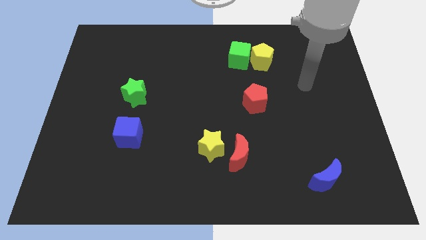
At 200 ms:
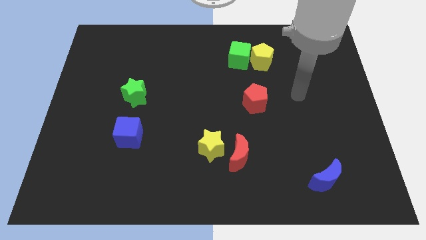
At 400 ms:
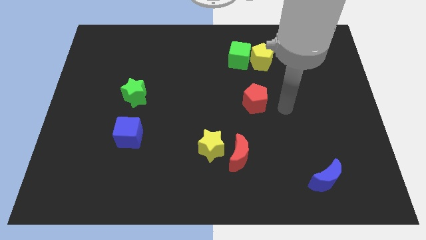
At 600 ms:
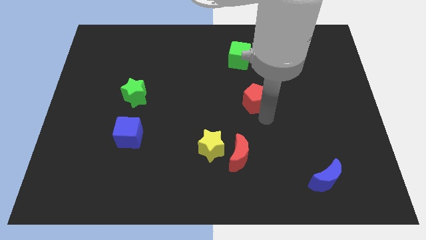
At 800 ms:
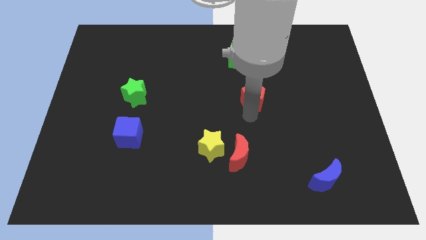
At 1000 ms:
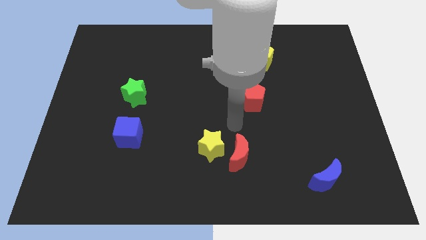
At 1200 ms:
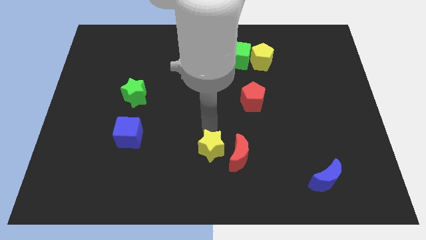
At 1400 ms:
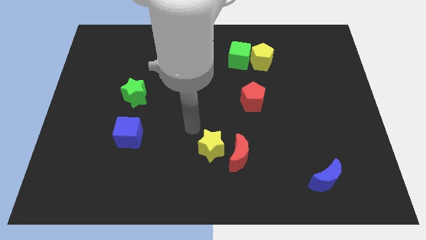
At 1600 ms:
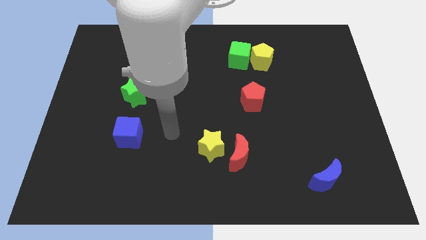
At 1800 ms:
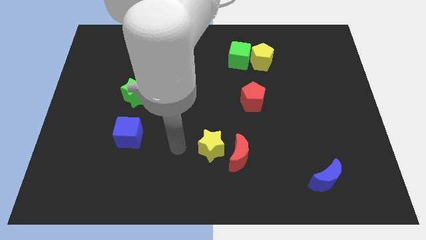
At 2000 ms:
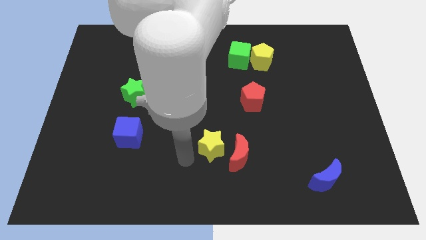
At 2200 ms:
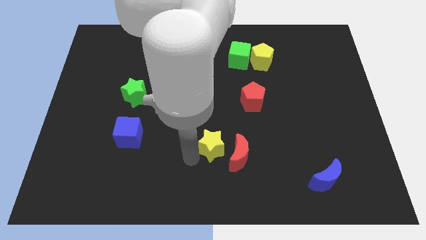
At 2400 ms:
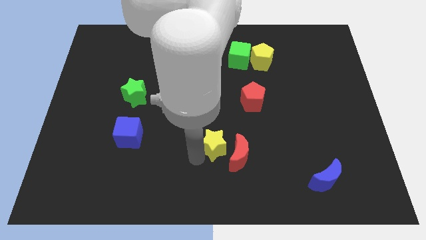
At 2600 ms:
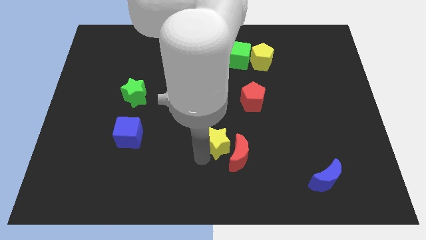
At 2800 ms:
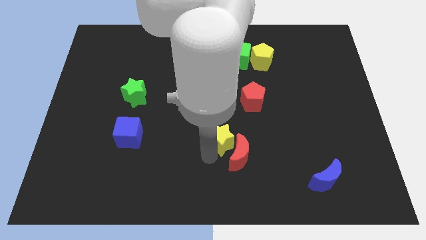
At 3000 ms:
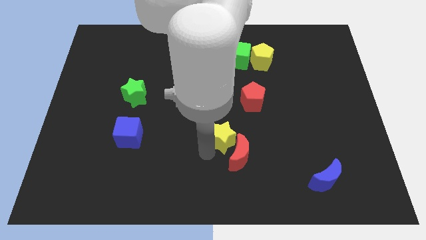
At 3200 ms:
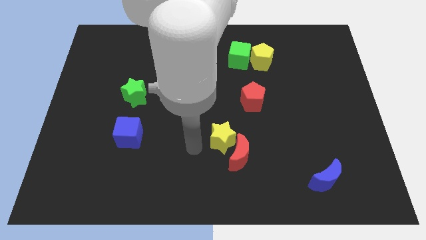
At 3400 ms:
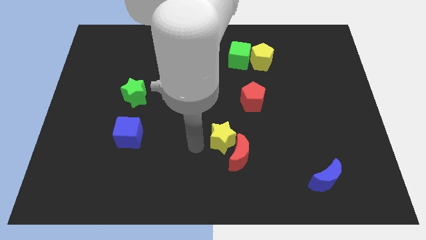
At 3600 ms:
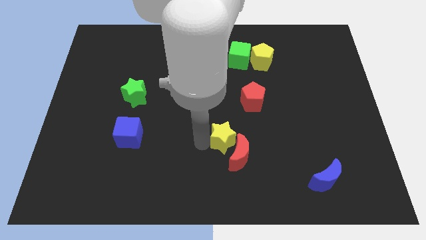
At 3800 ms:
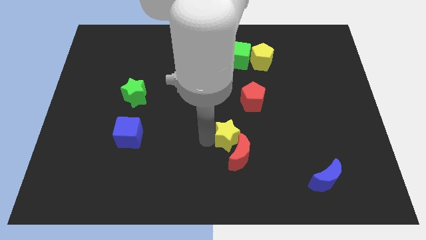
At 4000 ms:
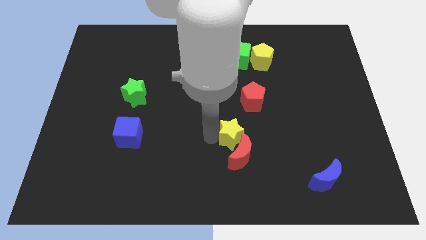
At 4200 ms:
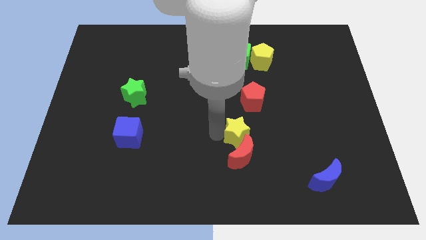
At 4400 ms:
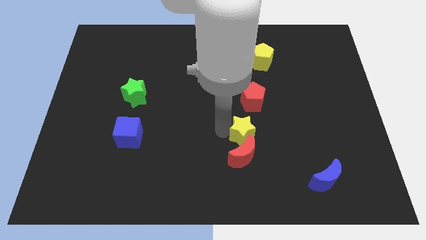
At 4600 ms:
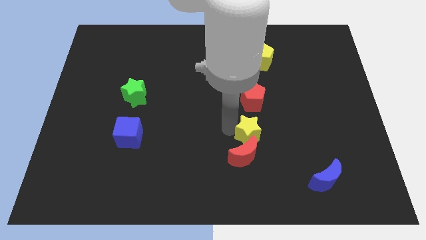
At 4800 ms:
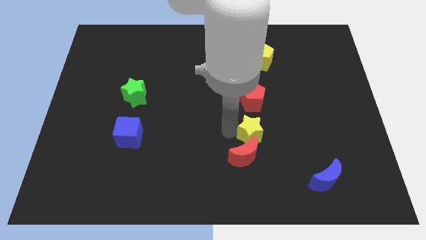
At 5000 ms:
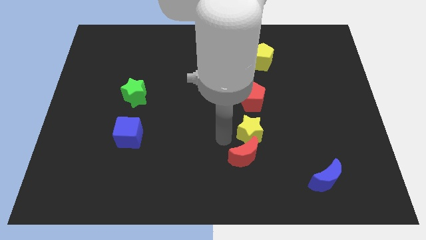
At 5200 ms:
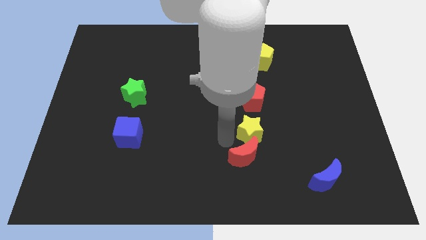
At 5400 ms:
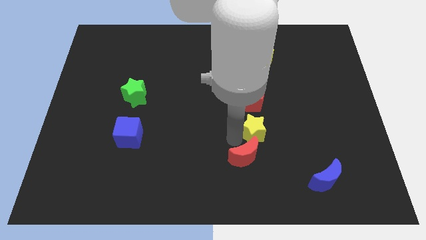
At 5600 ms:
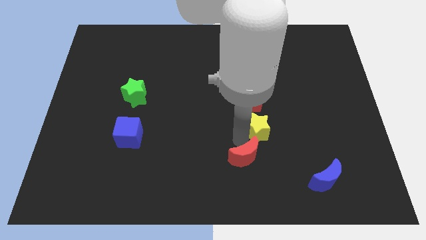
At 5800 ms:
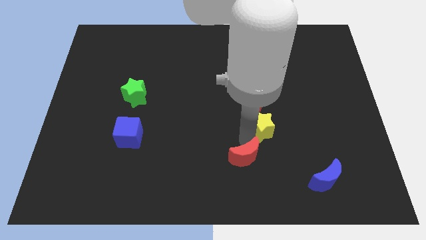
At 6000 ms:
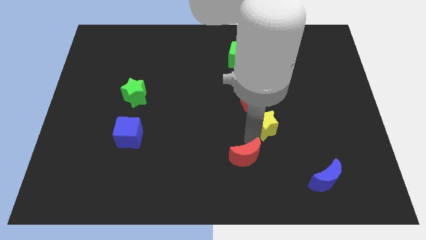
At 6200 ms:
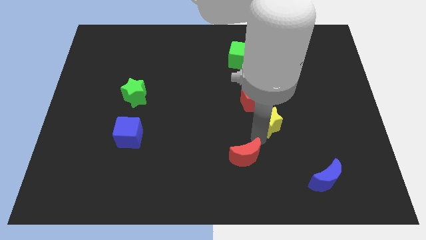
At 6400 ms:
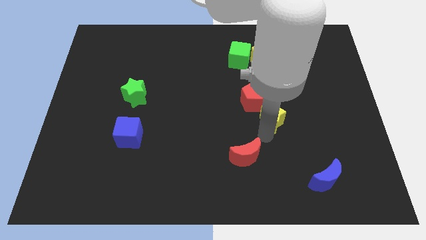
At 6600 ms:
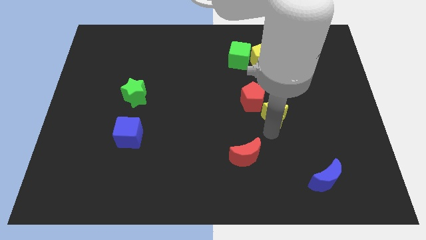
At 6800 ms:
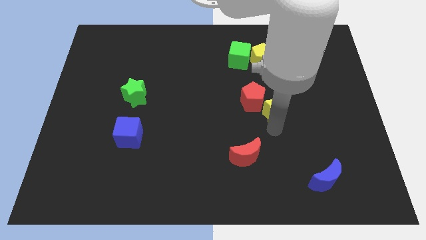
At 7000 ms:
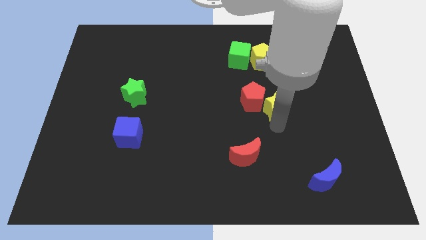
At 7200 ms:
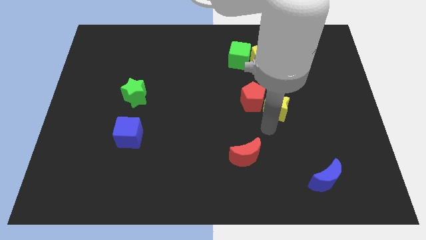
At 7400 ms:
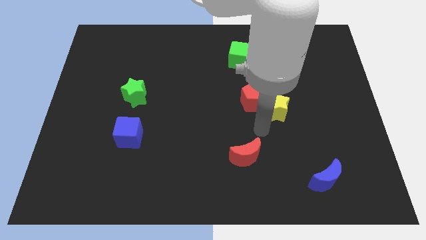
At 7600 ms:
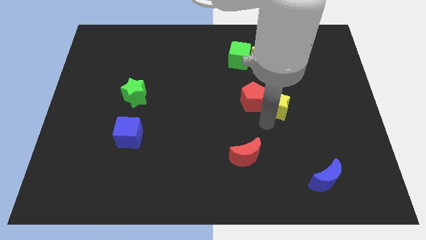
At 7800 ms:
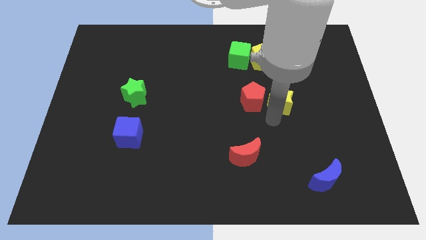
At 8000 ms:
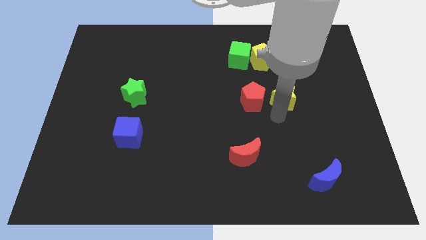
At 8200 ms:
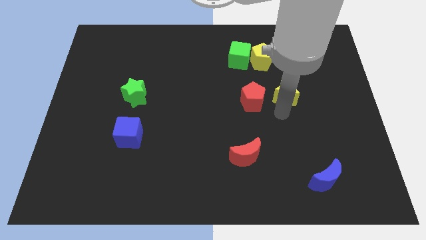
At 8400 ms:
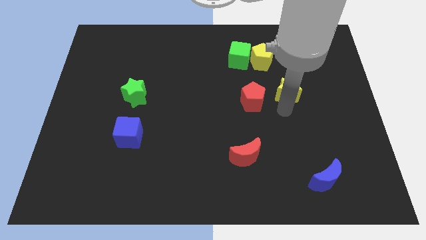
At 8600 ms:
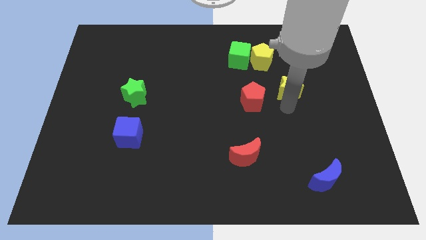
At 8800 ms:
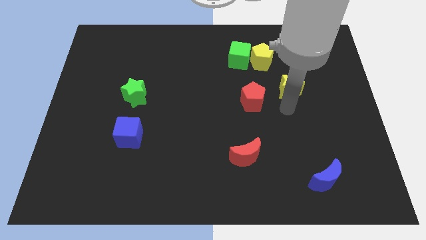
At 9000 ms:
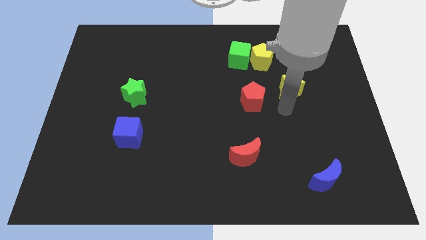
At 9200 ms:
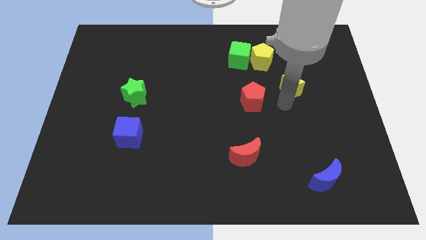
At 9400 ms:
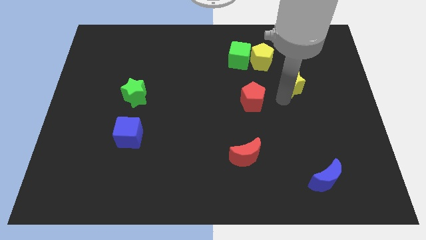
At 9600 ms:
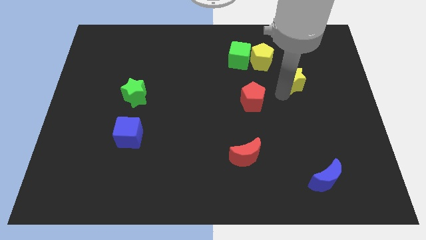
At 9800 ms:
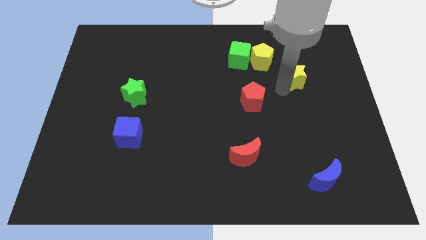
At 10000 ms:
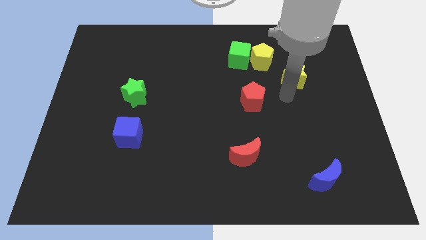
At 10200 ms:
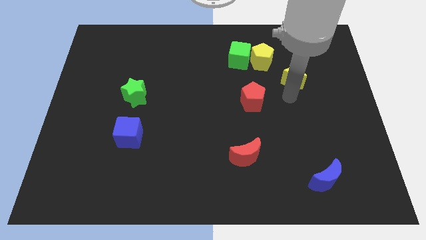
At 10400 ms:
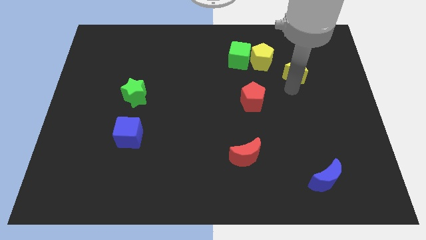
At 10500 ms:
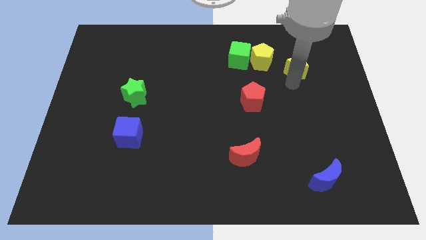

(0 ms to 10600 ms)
move the yellow star right of the yellow pentagon

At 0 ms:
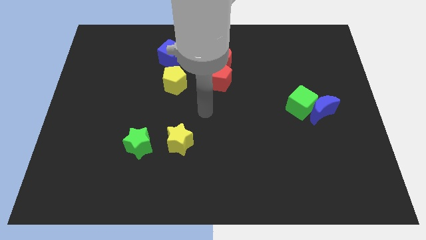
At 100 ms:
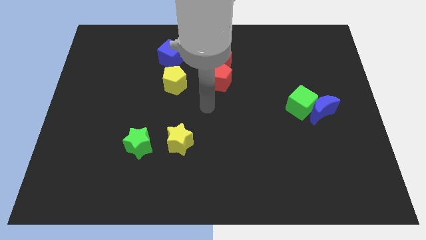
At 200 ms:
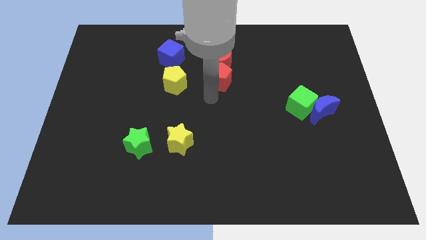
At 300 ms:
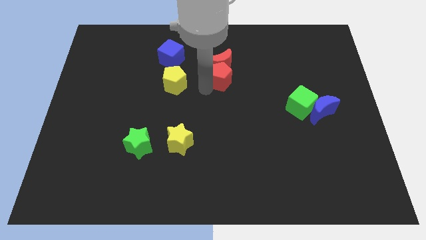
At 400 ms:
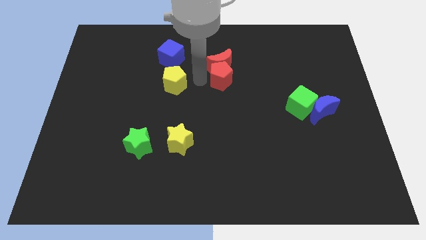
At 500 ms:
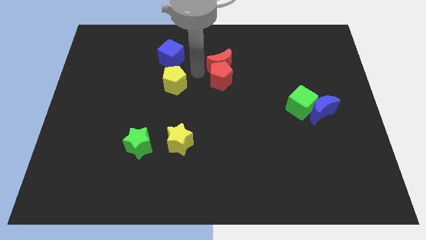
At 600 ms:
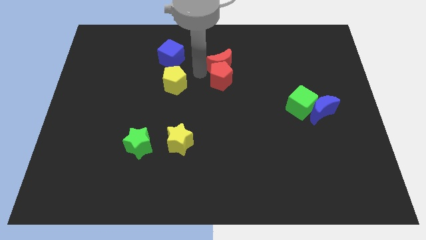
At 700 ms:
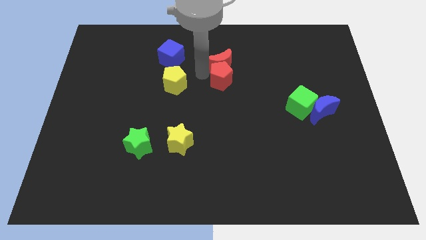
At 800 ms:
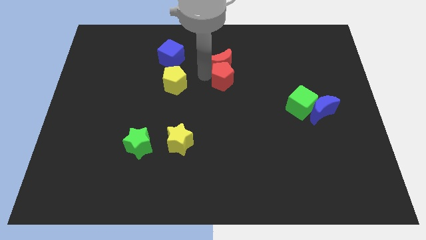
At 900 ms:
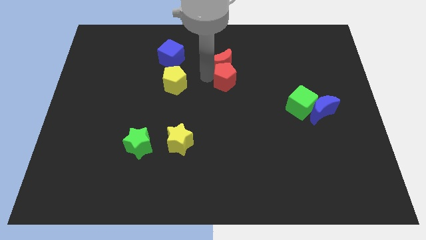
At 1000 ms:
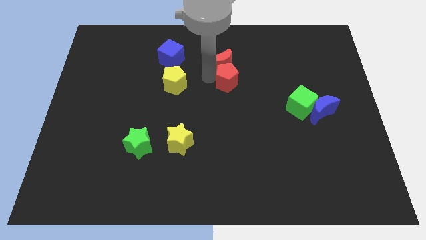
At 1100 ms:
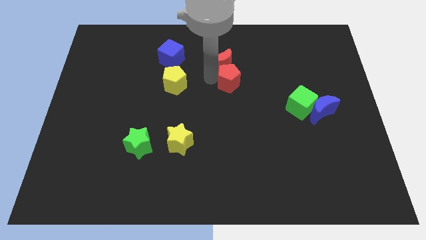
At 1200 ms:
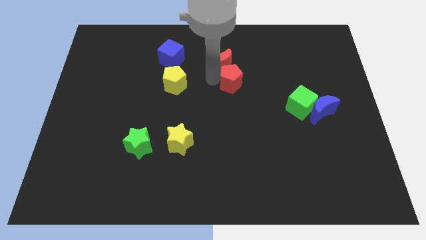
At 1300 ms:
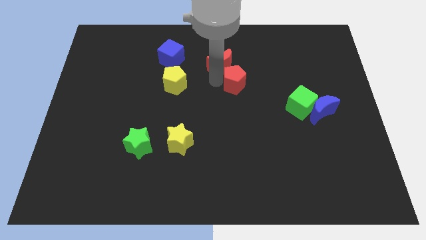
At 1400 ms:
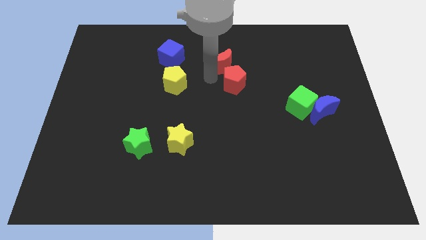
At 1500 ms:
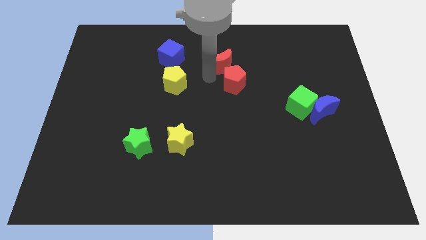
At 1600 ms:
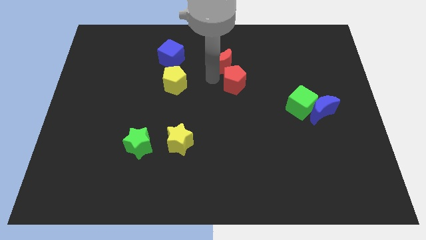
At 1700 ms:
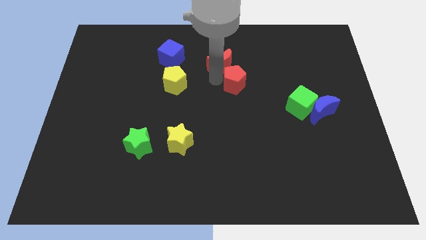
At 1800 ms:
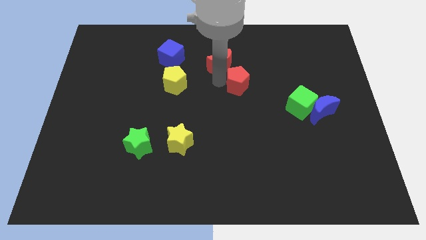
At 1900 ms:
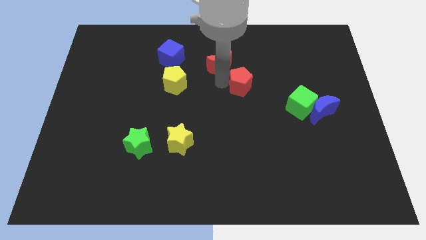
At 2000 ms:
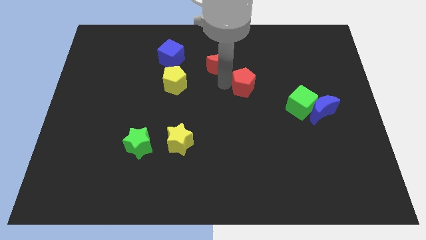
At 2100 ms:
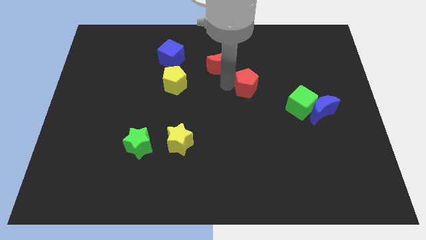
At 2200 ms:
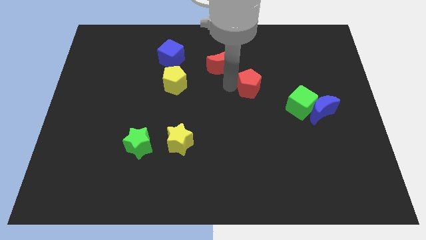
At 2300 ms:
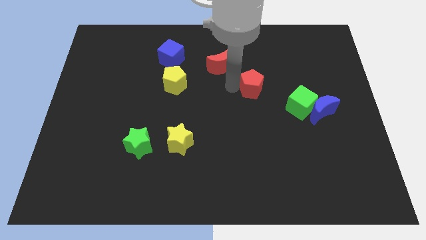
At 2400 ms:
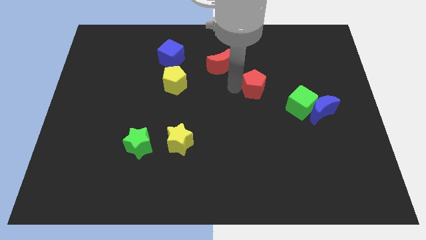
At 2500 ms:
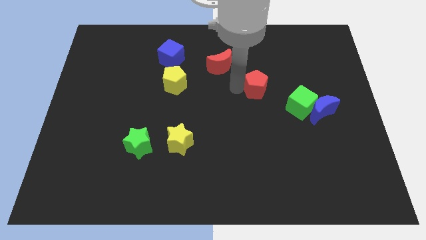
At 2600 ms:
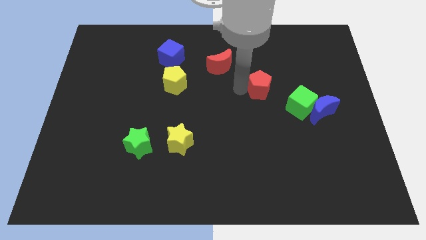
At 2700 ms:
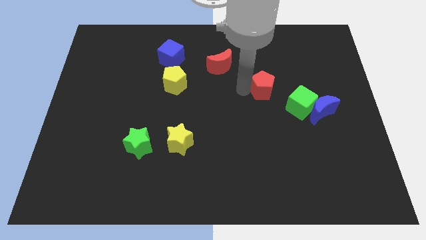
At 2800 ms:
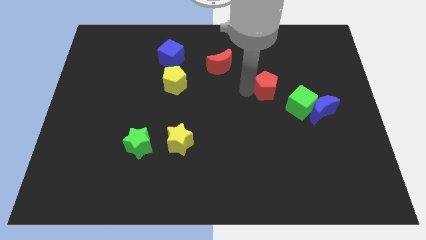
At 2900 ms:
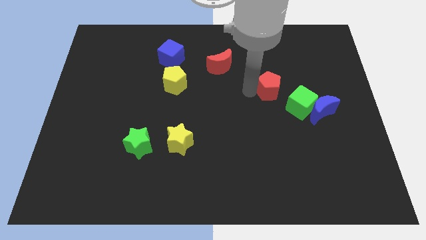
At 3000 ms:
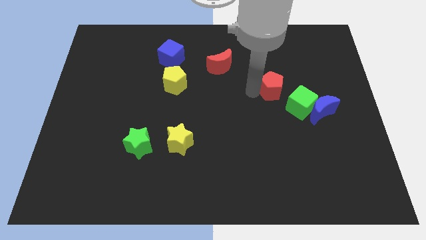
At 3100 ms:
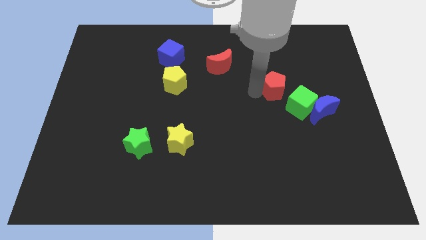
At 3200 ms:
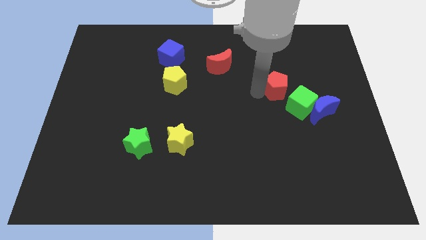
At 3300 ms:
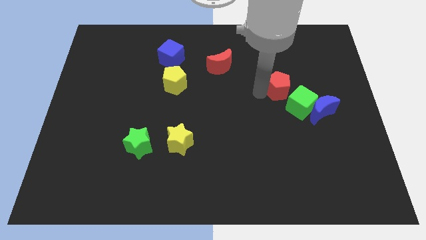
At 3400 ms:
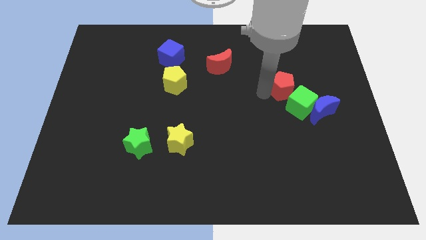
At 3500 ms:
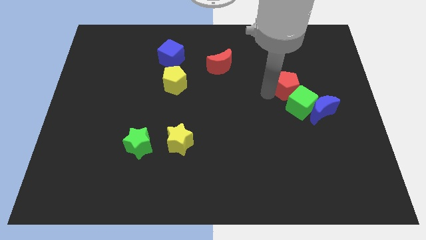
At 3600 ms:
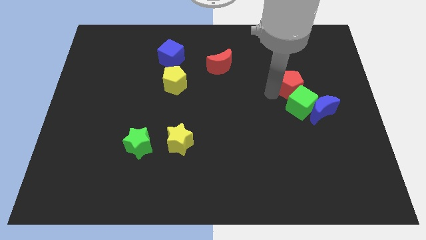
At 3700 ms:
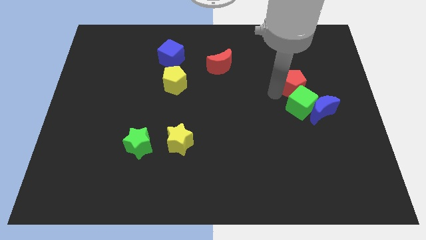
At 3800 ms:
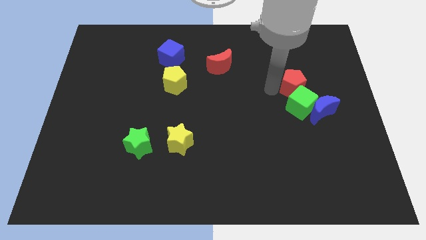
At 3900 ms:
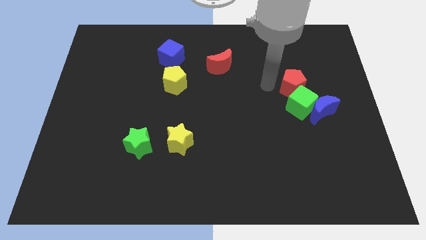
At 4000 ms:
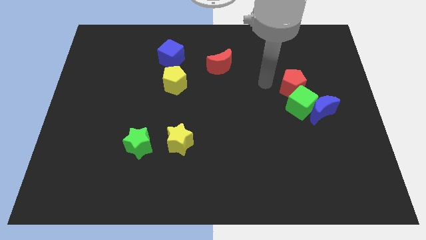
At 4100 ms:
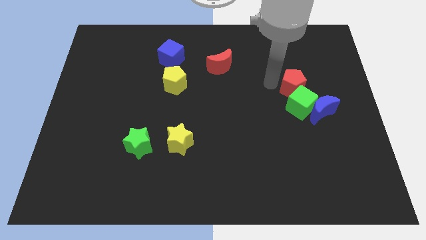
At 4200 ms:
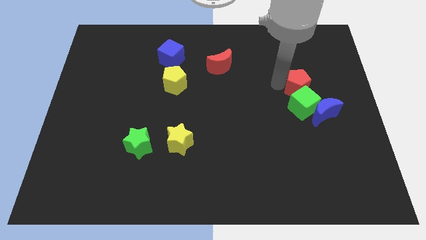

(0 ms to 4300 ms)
move the red pentagon to the top right side of the green cube
